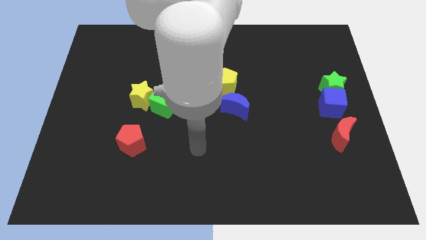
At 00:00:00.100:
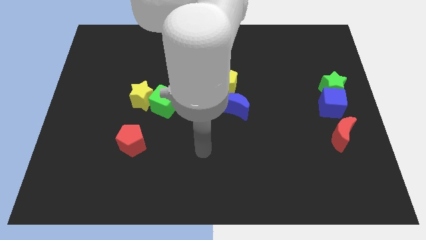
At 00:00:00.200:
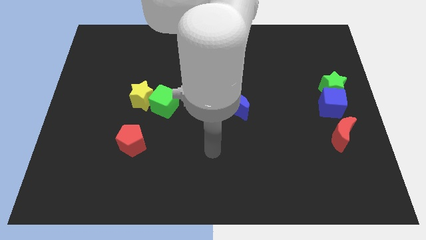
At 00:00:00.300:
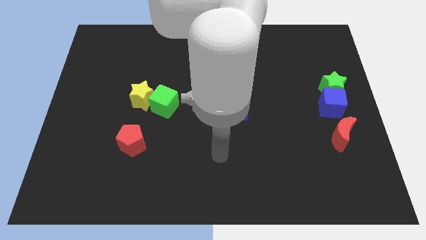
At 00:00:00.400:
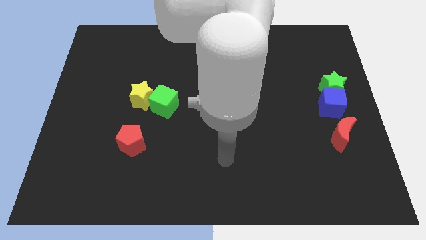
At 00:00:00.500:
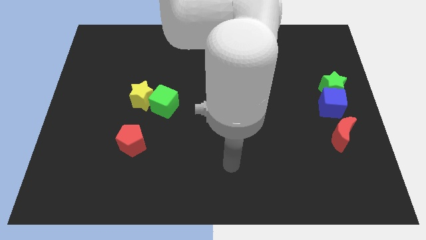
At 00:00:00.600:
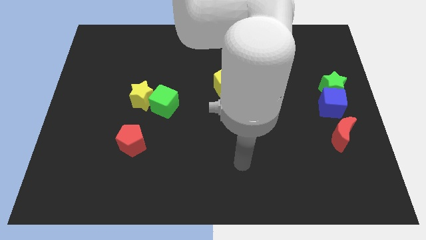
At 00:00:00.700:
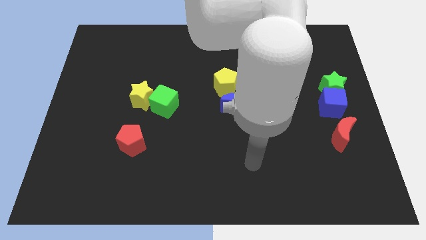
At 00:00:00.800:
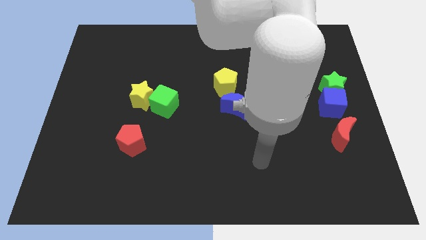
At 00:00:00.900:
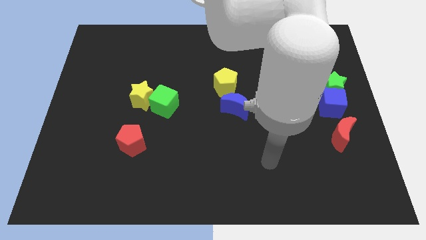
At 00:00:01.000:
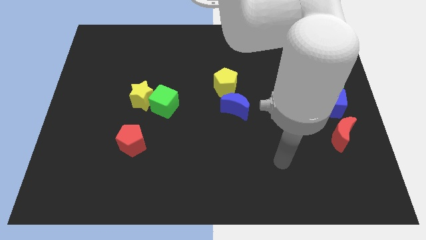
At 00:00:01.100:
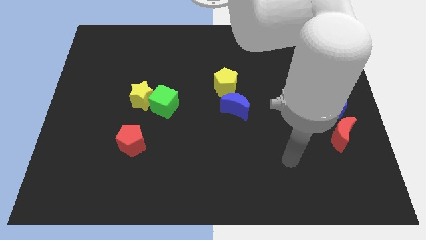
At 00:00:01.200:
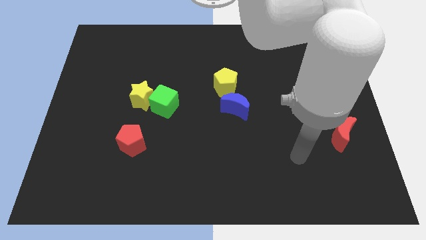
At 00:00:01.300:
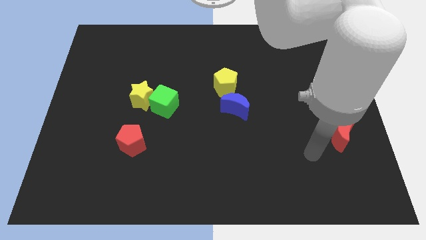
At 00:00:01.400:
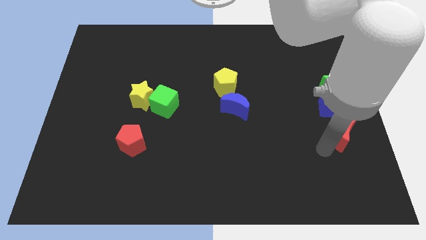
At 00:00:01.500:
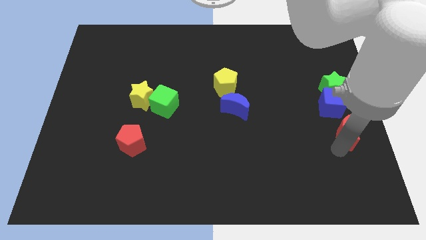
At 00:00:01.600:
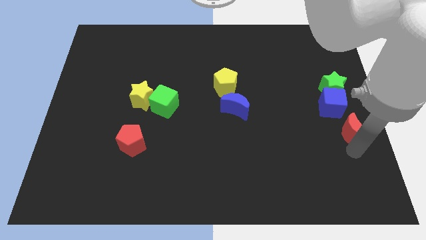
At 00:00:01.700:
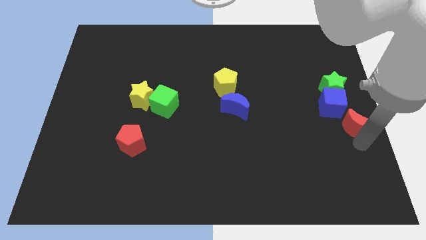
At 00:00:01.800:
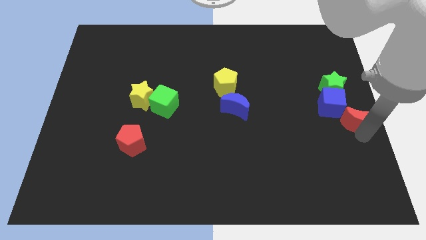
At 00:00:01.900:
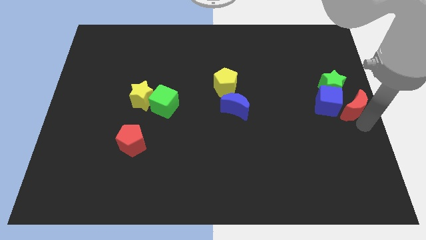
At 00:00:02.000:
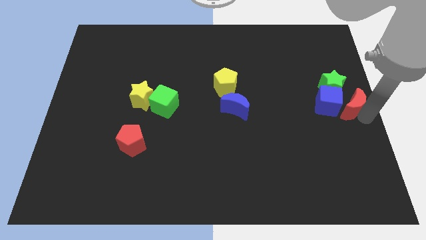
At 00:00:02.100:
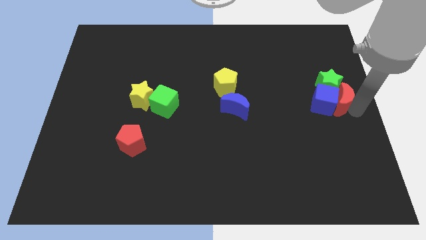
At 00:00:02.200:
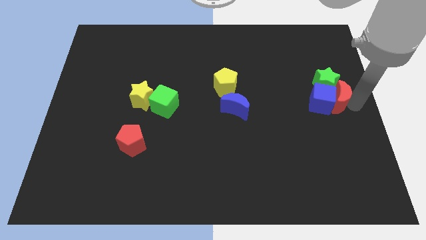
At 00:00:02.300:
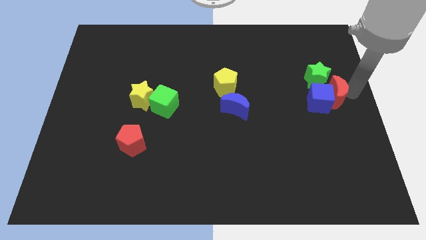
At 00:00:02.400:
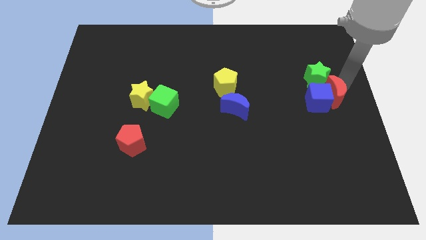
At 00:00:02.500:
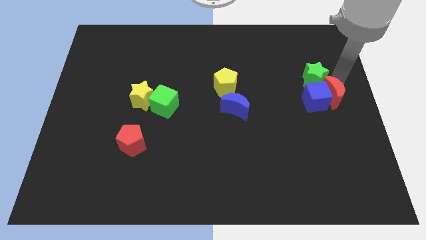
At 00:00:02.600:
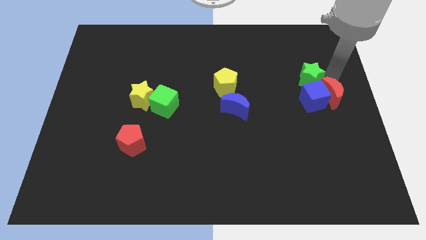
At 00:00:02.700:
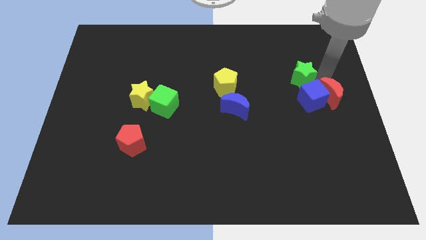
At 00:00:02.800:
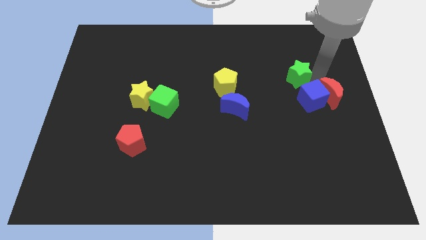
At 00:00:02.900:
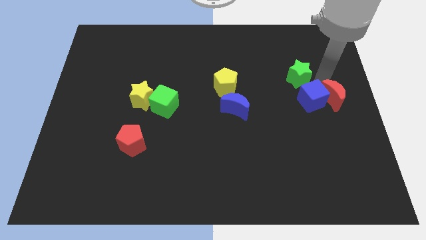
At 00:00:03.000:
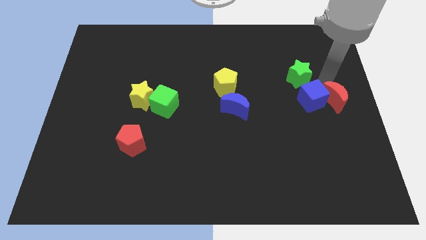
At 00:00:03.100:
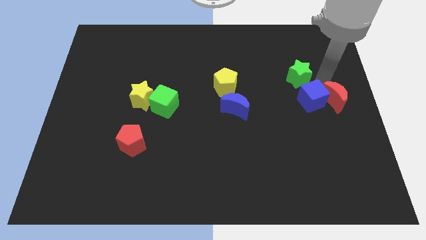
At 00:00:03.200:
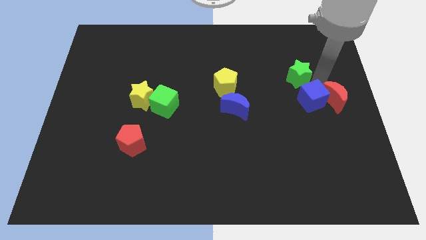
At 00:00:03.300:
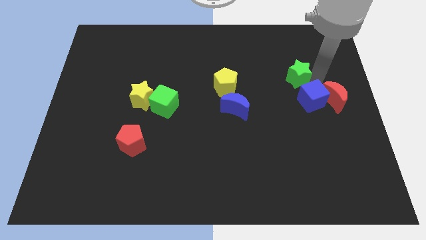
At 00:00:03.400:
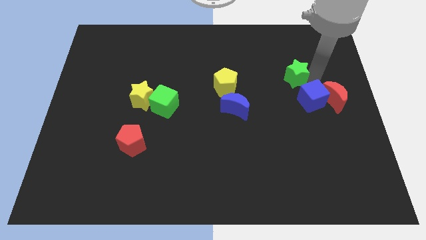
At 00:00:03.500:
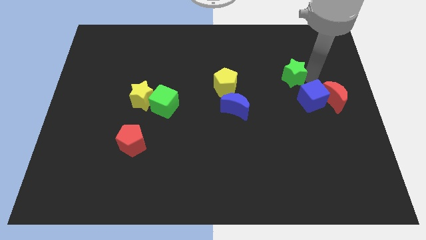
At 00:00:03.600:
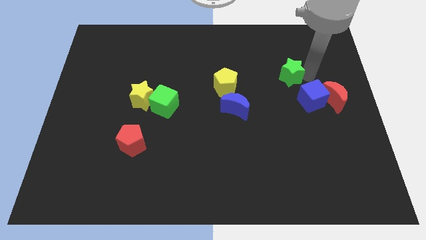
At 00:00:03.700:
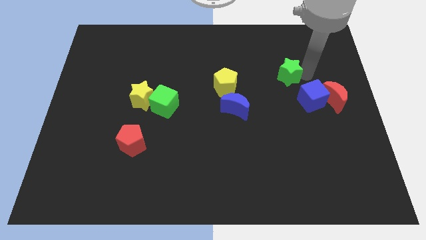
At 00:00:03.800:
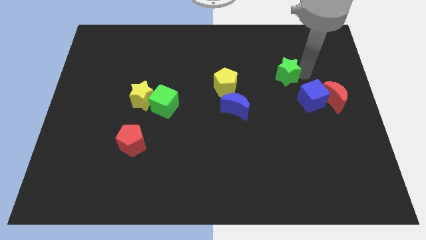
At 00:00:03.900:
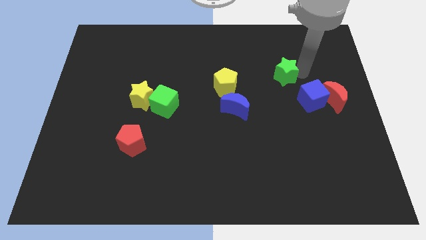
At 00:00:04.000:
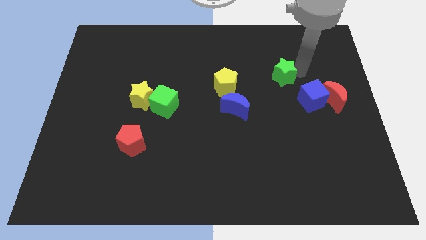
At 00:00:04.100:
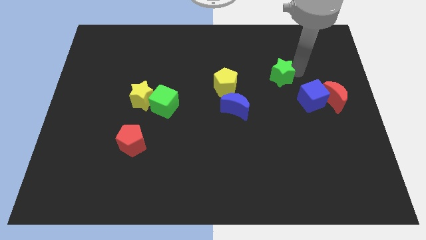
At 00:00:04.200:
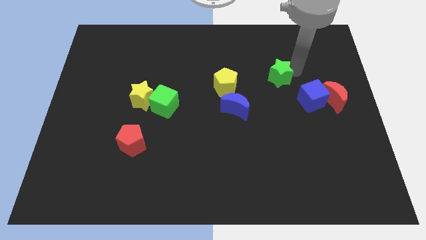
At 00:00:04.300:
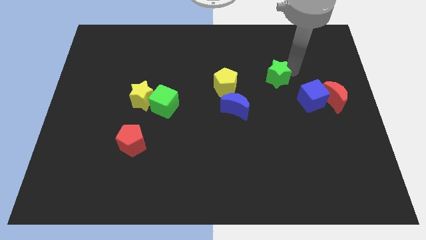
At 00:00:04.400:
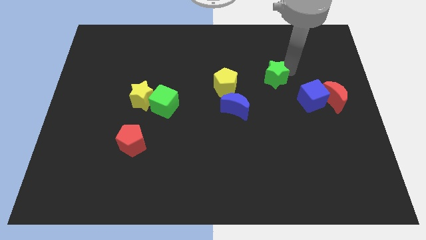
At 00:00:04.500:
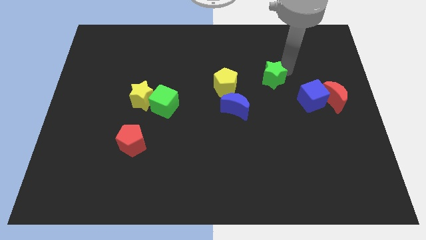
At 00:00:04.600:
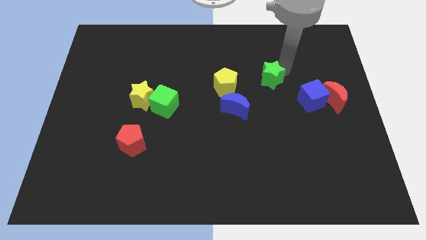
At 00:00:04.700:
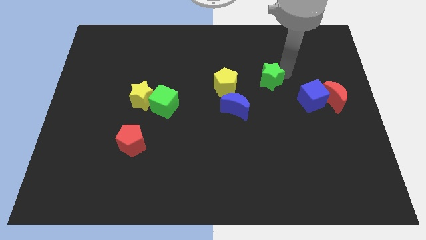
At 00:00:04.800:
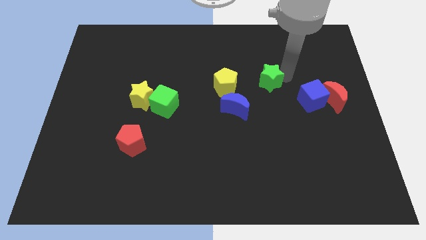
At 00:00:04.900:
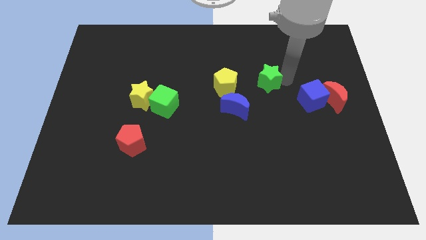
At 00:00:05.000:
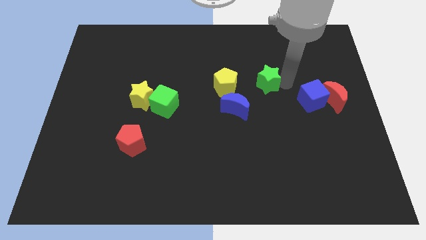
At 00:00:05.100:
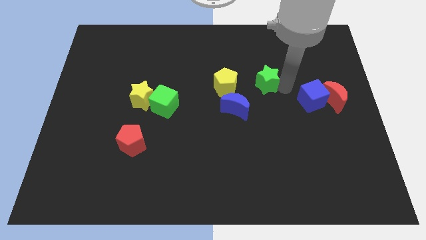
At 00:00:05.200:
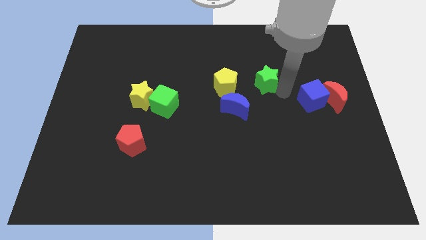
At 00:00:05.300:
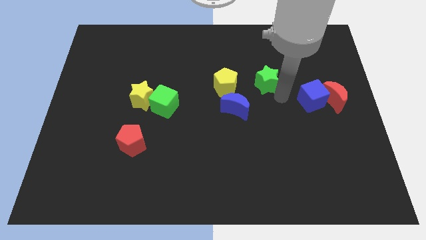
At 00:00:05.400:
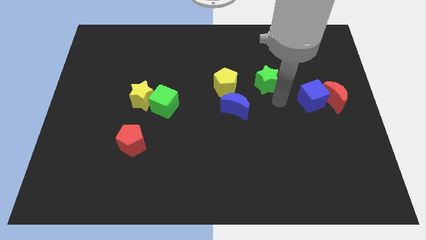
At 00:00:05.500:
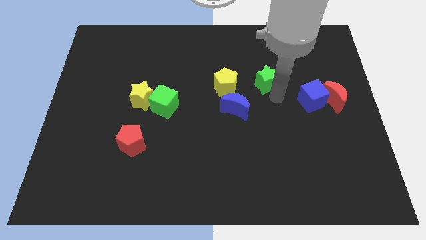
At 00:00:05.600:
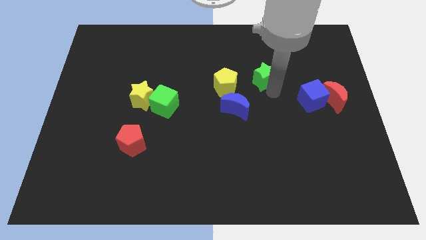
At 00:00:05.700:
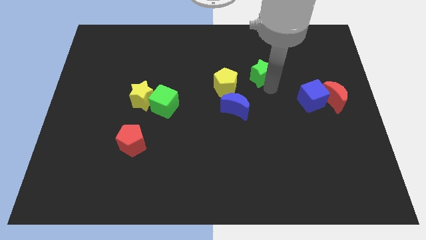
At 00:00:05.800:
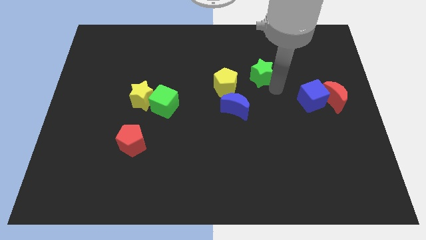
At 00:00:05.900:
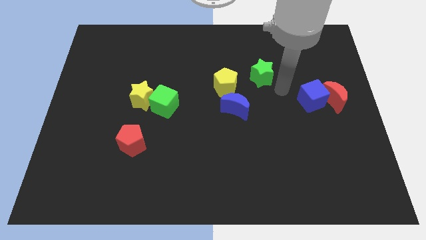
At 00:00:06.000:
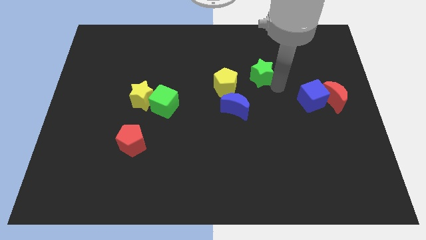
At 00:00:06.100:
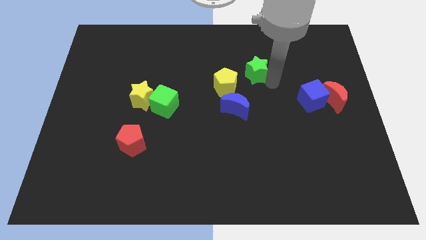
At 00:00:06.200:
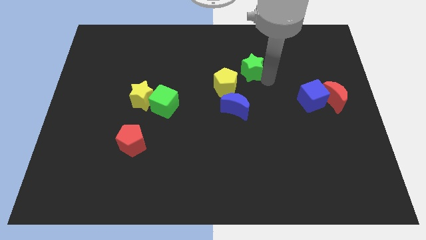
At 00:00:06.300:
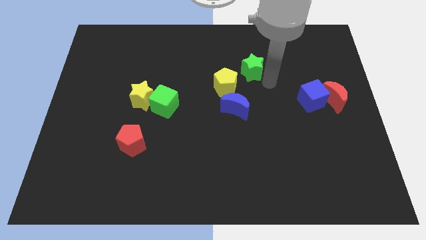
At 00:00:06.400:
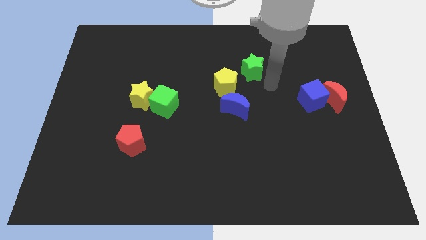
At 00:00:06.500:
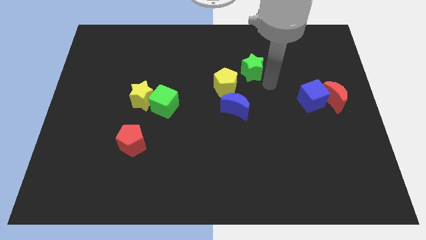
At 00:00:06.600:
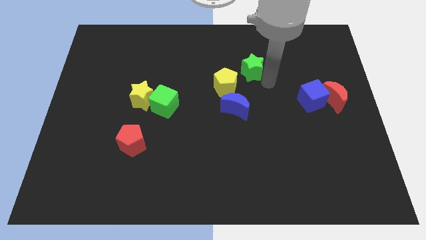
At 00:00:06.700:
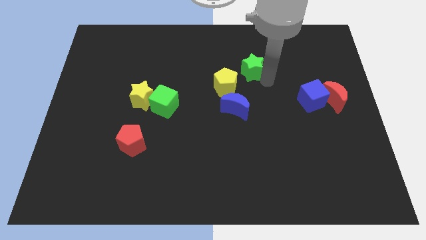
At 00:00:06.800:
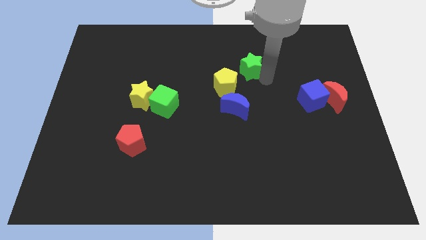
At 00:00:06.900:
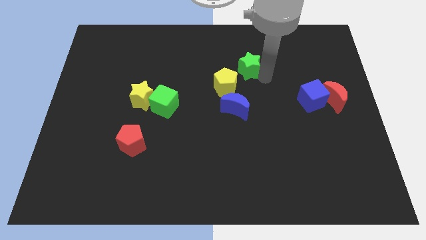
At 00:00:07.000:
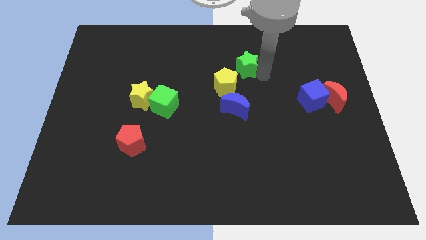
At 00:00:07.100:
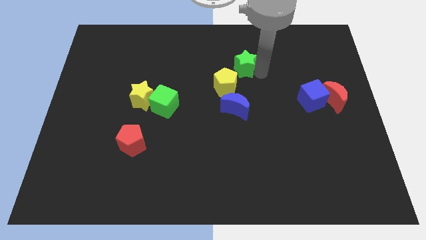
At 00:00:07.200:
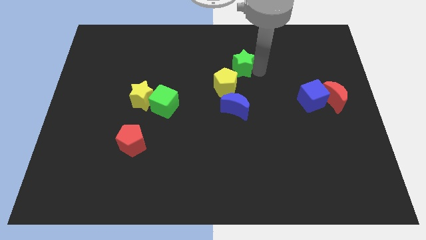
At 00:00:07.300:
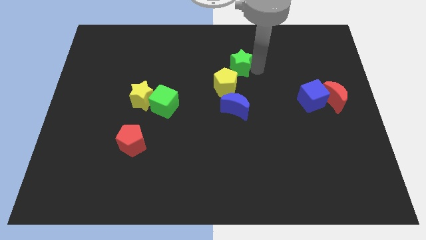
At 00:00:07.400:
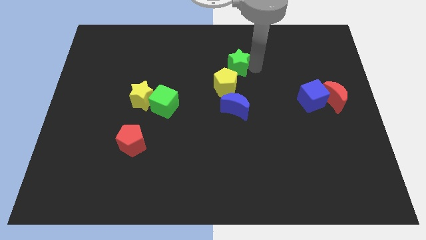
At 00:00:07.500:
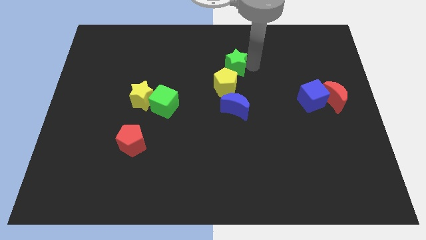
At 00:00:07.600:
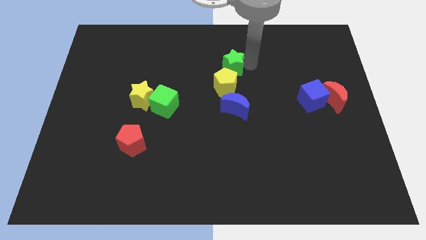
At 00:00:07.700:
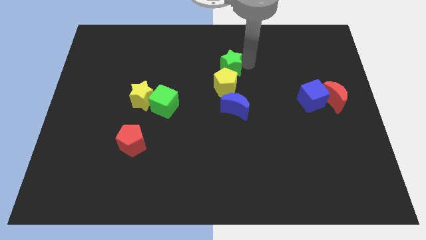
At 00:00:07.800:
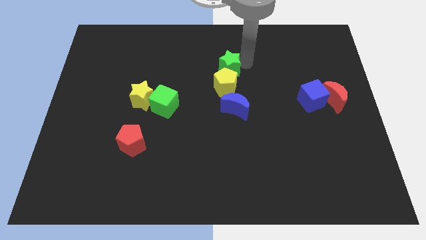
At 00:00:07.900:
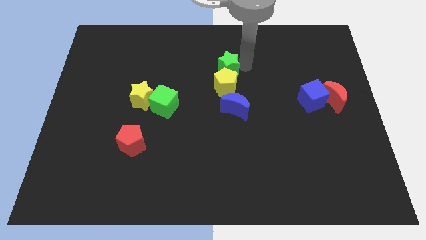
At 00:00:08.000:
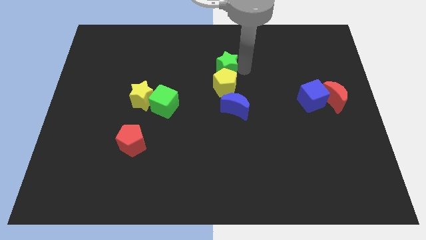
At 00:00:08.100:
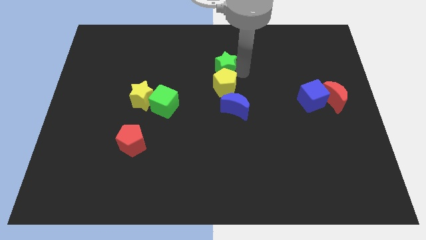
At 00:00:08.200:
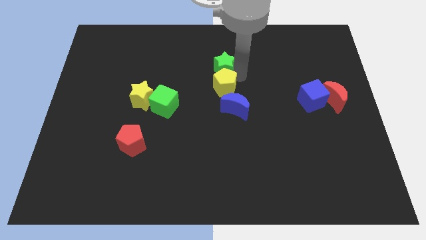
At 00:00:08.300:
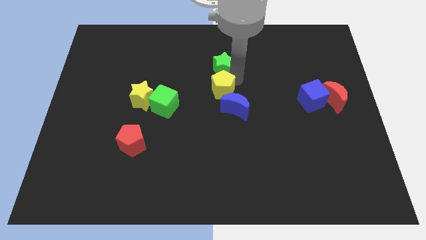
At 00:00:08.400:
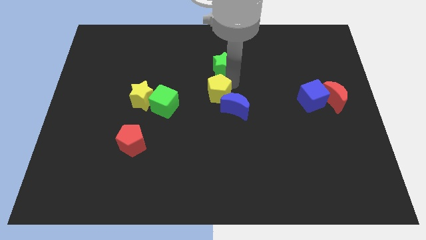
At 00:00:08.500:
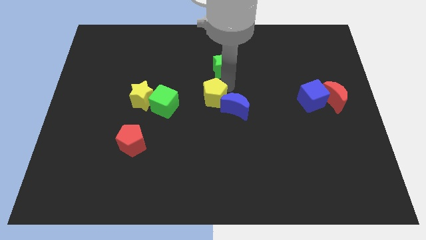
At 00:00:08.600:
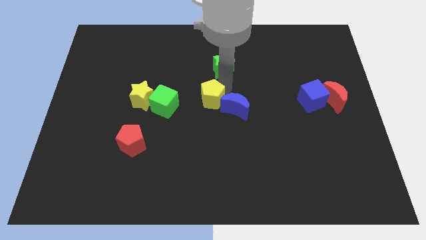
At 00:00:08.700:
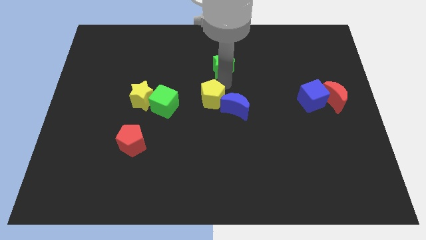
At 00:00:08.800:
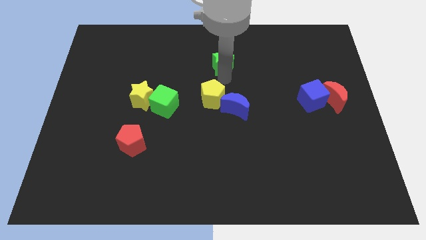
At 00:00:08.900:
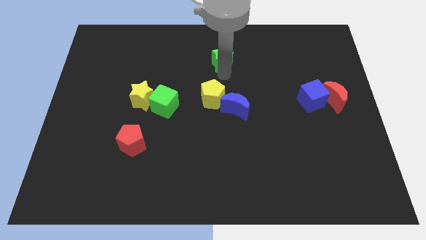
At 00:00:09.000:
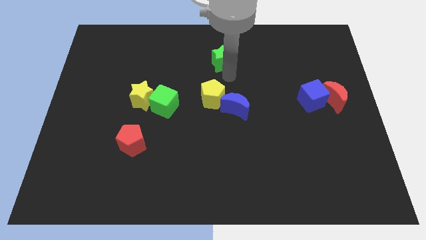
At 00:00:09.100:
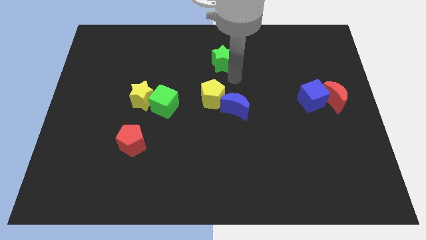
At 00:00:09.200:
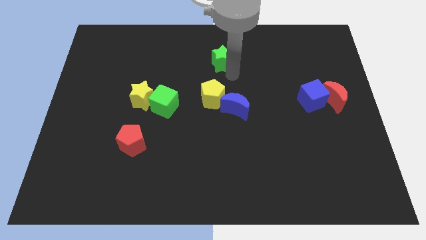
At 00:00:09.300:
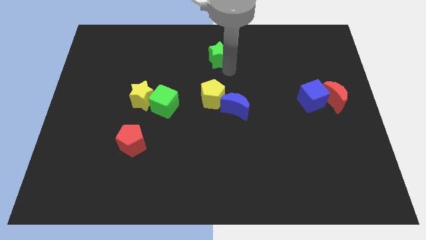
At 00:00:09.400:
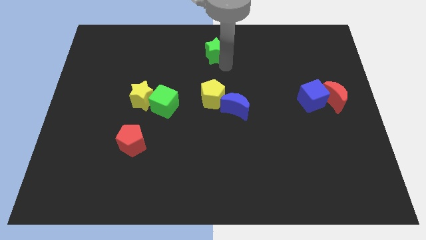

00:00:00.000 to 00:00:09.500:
push the green star to the top
